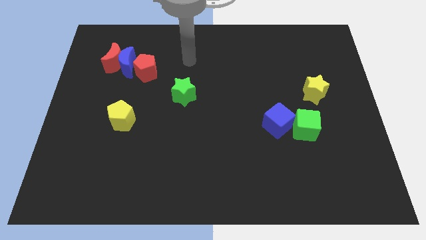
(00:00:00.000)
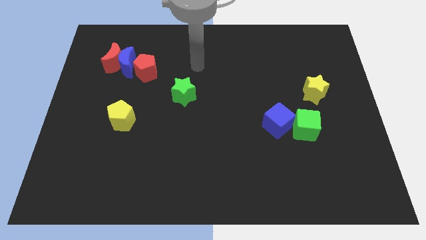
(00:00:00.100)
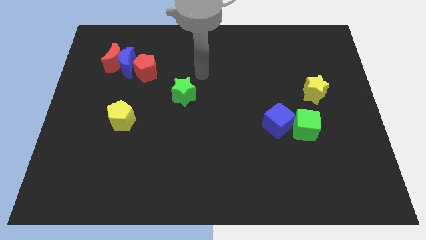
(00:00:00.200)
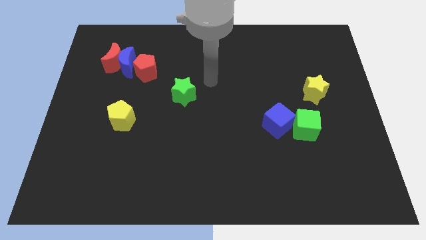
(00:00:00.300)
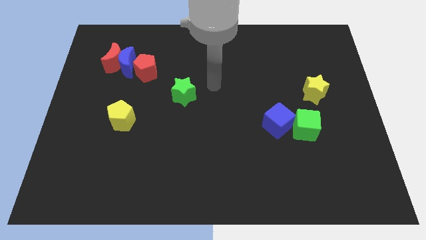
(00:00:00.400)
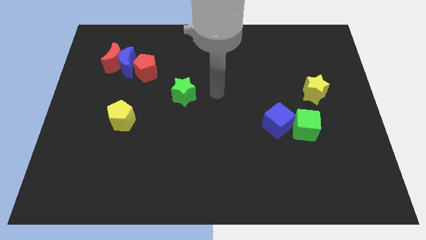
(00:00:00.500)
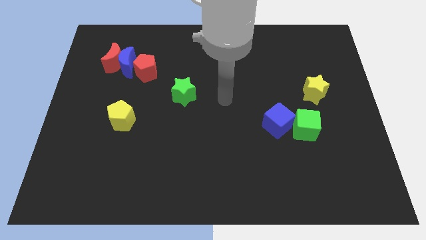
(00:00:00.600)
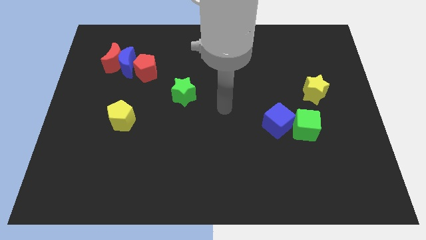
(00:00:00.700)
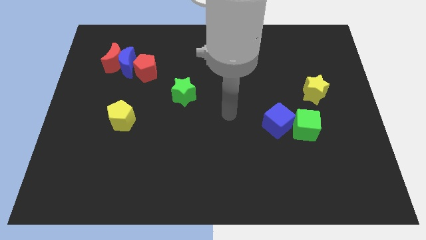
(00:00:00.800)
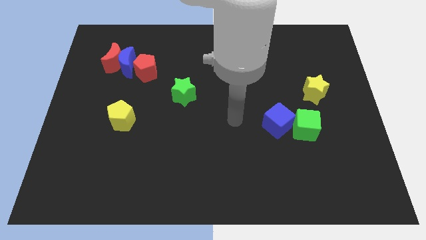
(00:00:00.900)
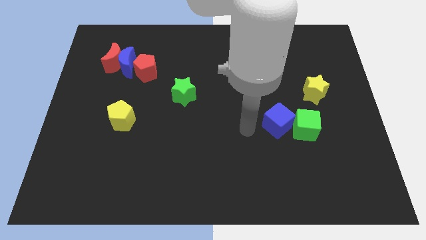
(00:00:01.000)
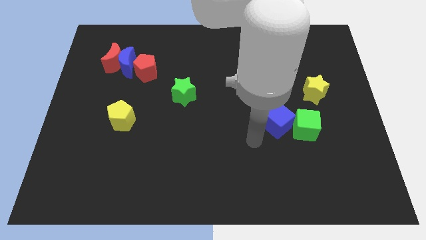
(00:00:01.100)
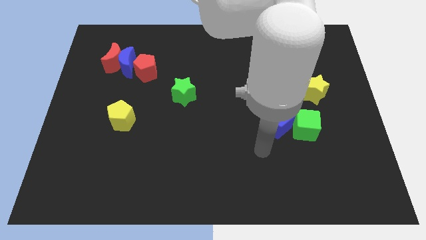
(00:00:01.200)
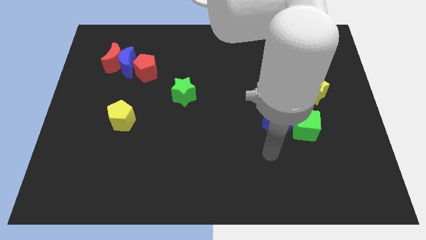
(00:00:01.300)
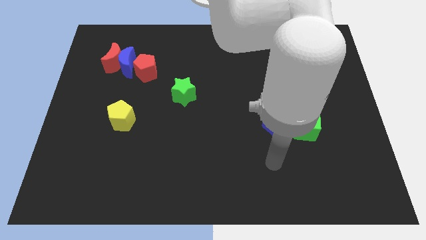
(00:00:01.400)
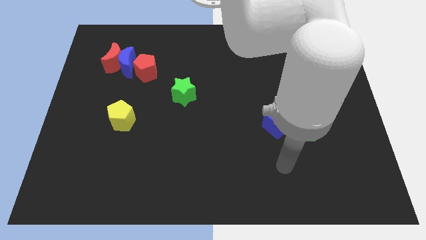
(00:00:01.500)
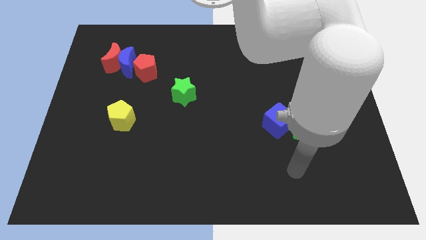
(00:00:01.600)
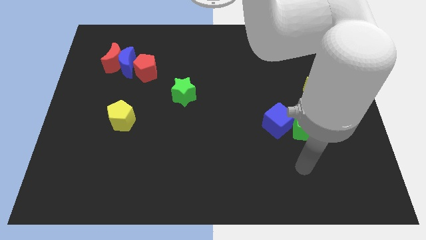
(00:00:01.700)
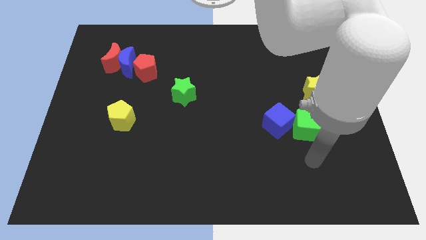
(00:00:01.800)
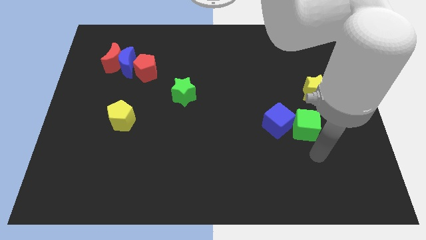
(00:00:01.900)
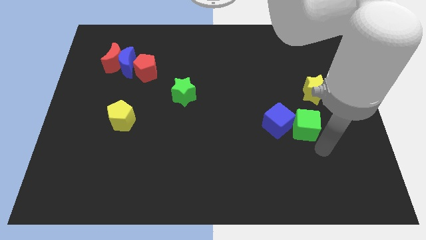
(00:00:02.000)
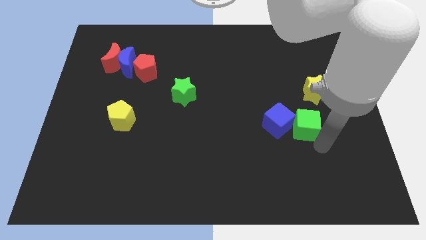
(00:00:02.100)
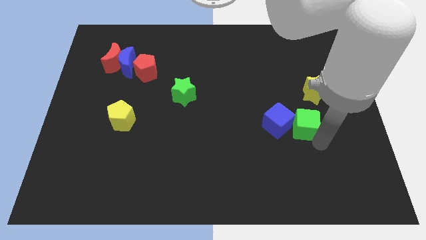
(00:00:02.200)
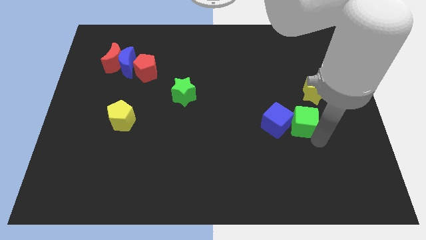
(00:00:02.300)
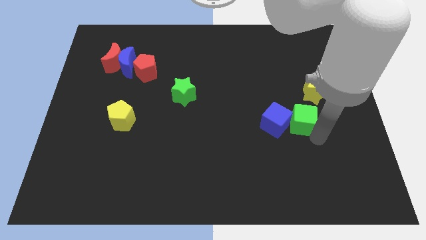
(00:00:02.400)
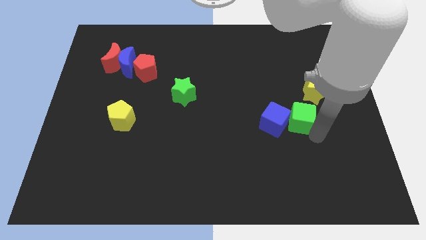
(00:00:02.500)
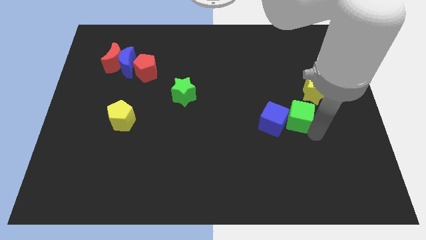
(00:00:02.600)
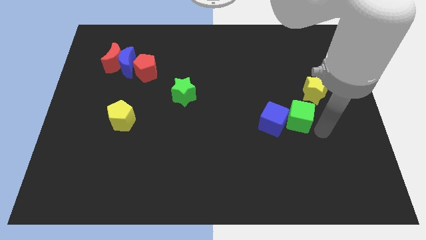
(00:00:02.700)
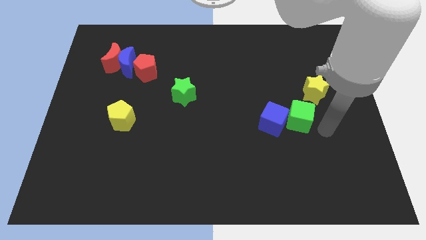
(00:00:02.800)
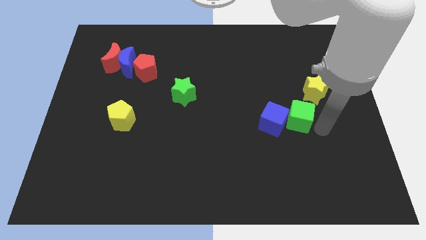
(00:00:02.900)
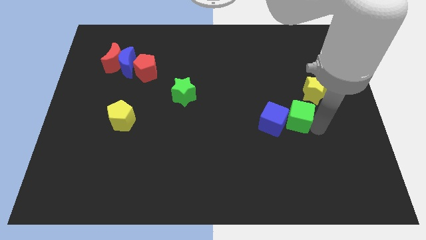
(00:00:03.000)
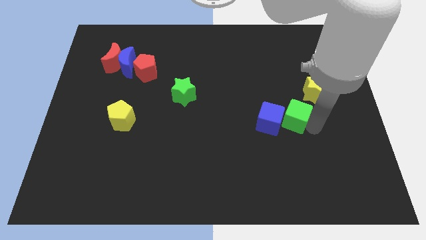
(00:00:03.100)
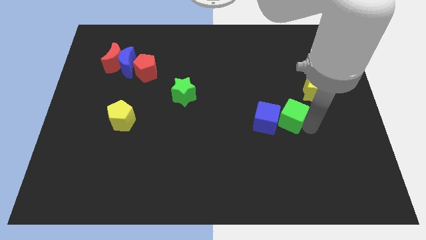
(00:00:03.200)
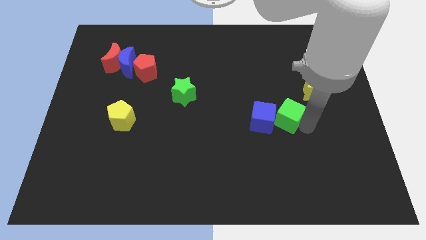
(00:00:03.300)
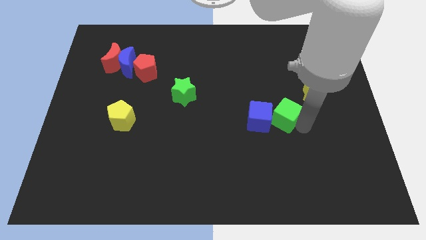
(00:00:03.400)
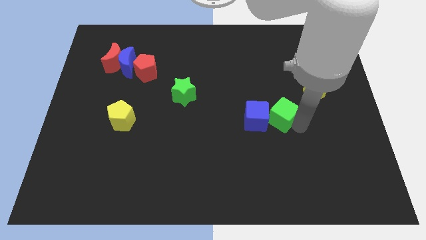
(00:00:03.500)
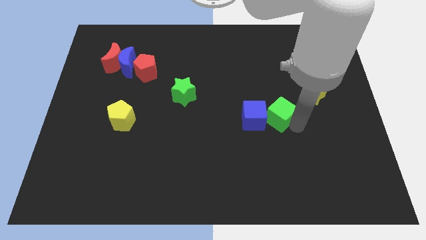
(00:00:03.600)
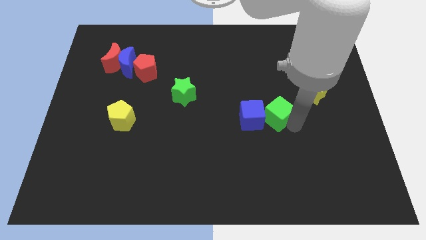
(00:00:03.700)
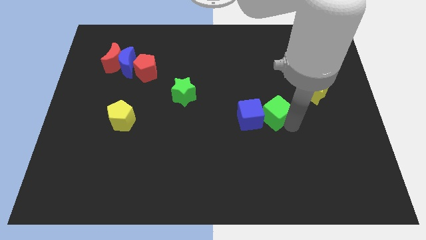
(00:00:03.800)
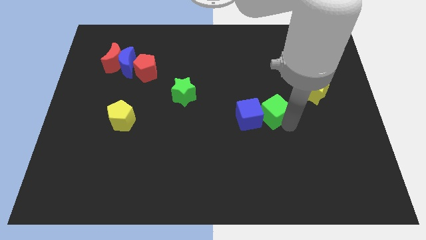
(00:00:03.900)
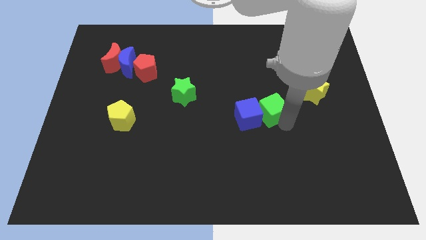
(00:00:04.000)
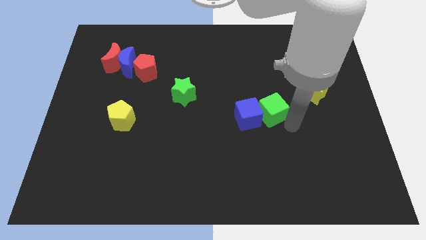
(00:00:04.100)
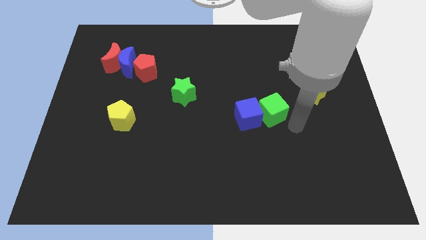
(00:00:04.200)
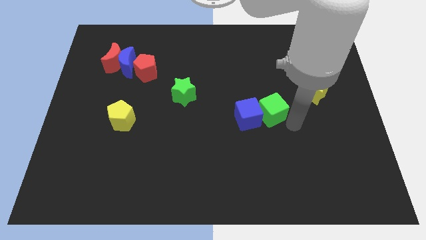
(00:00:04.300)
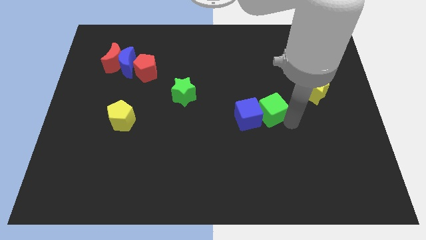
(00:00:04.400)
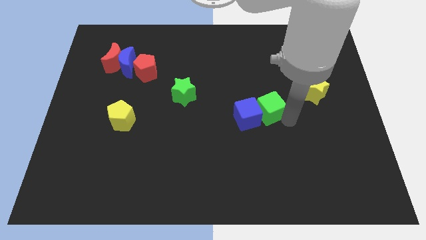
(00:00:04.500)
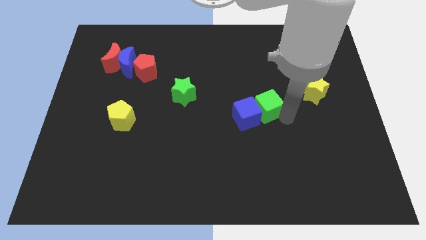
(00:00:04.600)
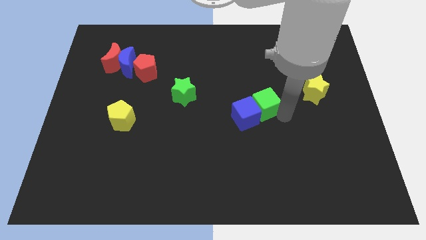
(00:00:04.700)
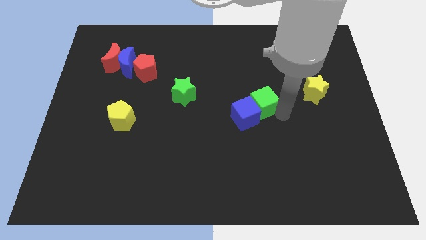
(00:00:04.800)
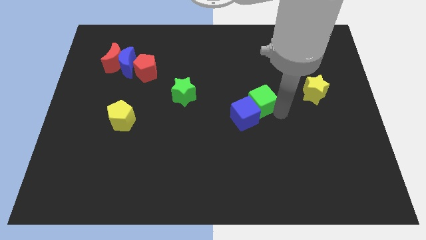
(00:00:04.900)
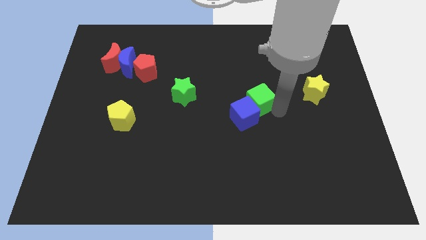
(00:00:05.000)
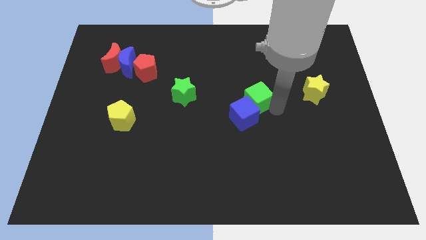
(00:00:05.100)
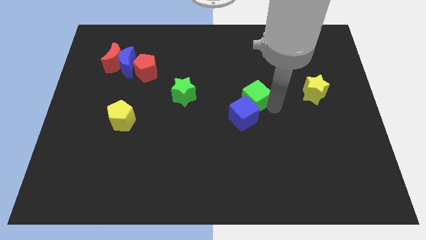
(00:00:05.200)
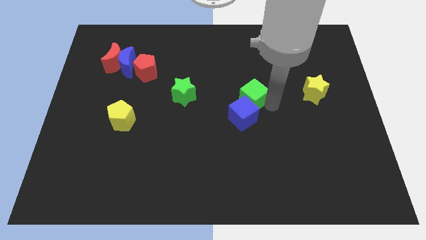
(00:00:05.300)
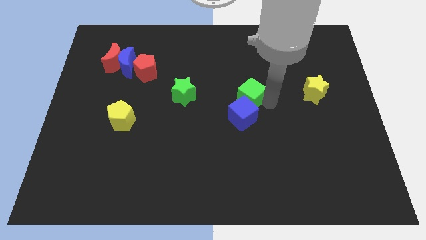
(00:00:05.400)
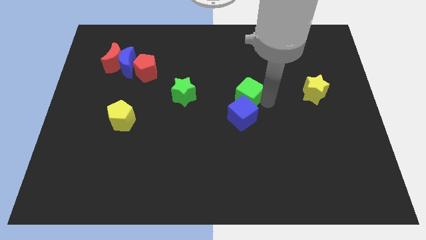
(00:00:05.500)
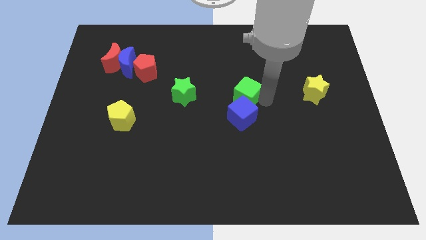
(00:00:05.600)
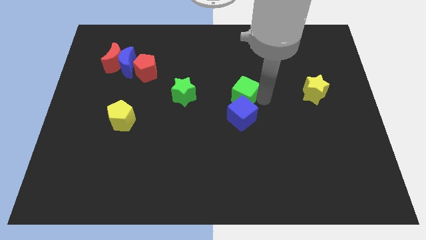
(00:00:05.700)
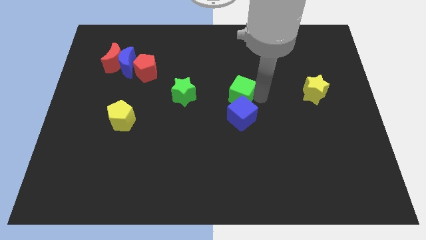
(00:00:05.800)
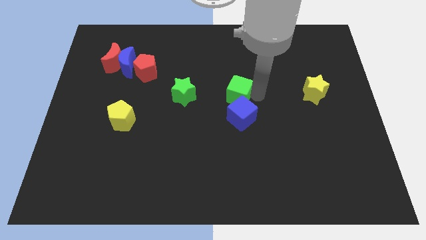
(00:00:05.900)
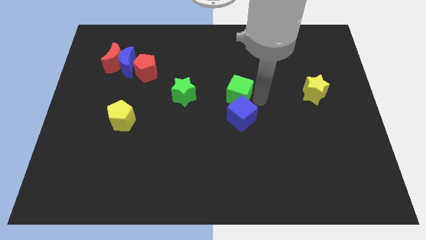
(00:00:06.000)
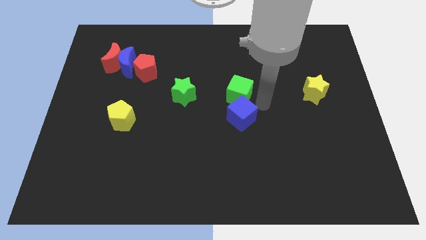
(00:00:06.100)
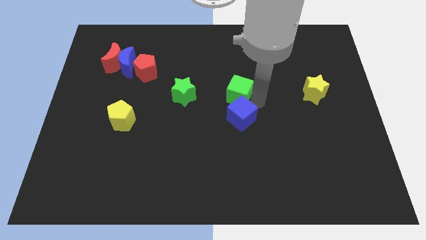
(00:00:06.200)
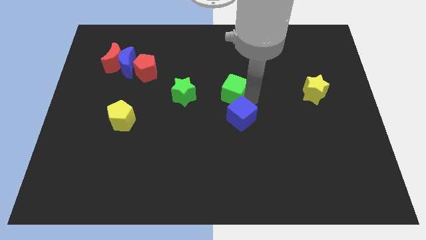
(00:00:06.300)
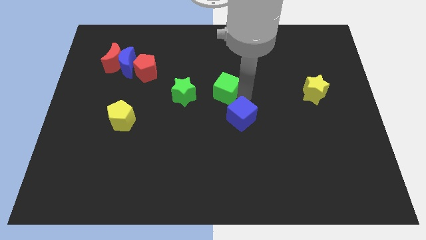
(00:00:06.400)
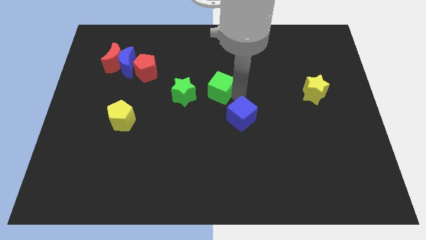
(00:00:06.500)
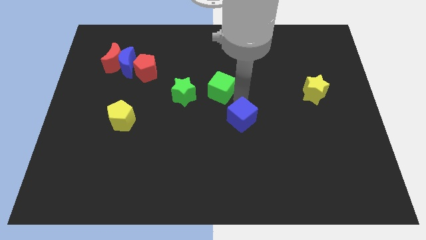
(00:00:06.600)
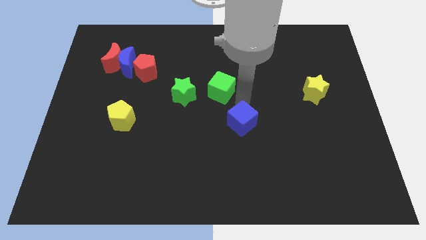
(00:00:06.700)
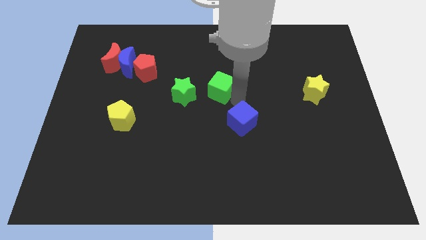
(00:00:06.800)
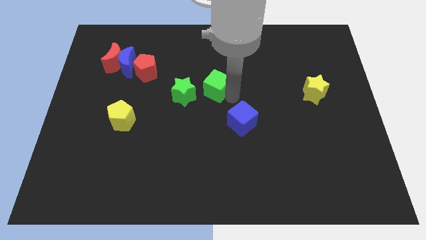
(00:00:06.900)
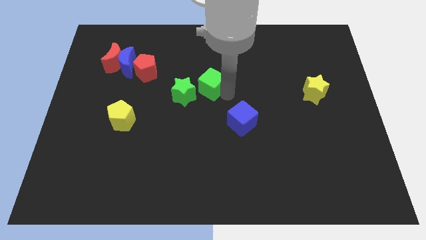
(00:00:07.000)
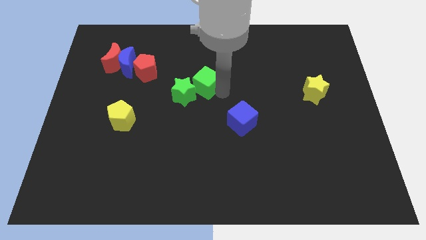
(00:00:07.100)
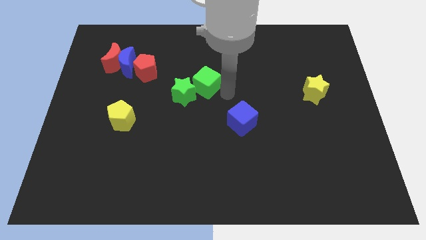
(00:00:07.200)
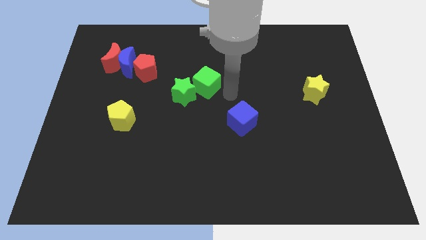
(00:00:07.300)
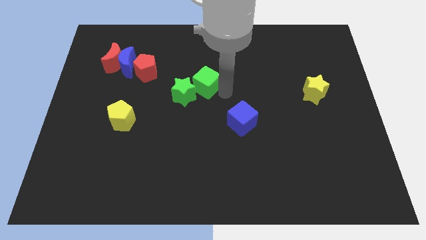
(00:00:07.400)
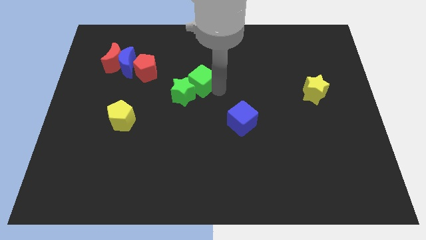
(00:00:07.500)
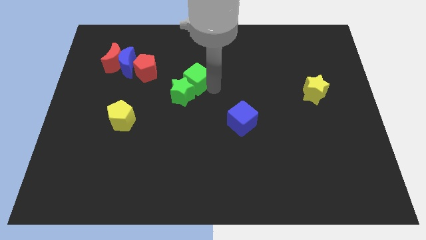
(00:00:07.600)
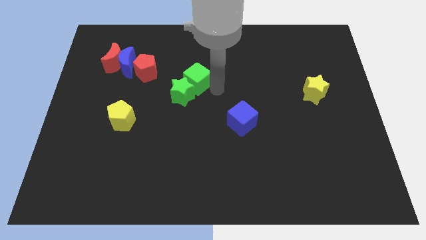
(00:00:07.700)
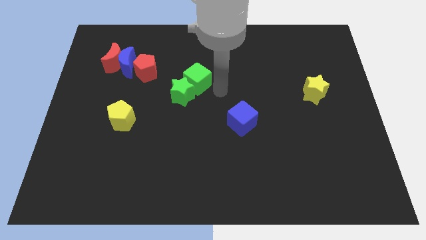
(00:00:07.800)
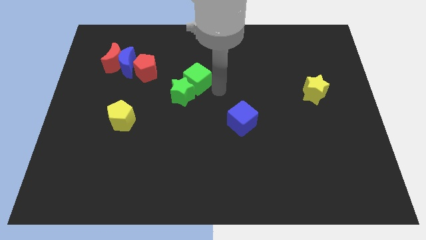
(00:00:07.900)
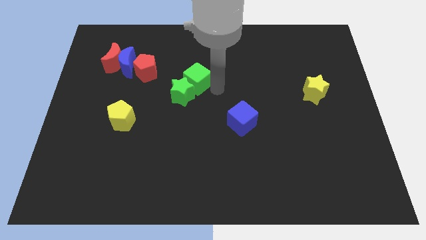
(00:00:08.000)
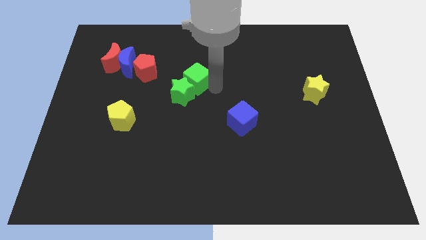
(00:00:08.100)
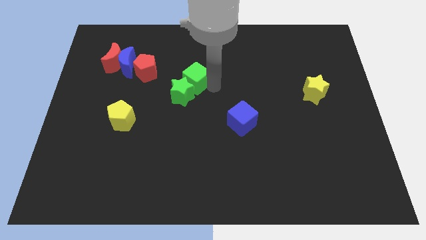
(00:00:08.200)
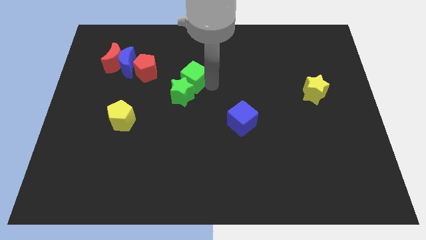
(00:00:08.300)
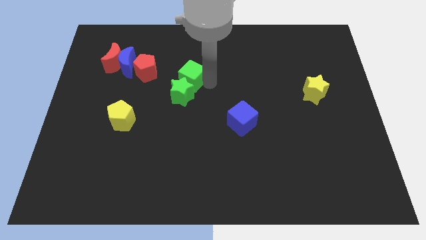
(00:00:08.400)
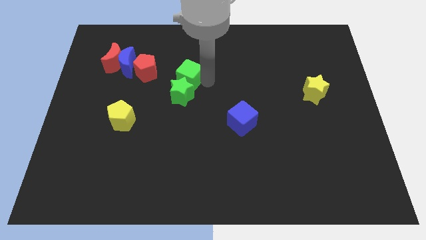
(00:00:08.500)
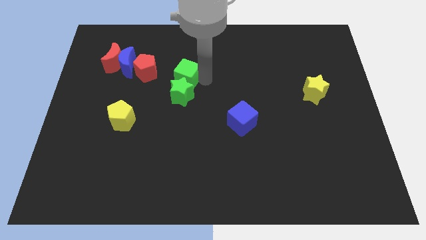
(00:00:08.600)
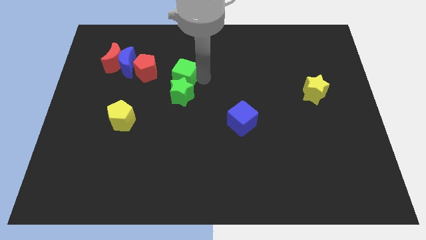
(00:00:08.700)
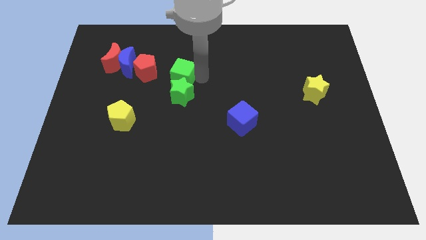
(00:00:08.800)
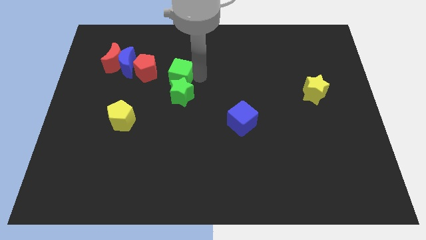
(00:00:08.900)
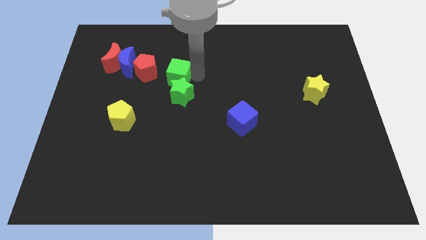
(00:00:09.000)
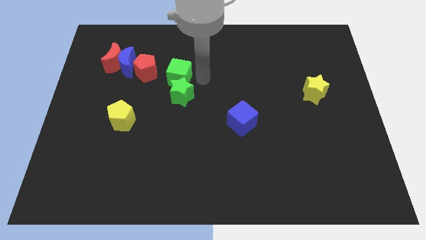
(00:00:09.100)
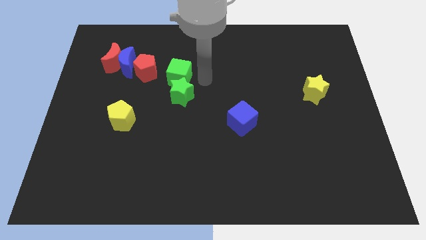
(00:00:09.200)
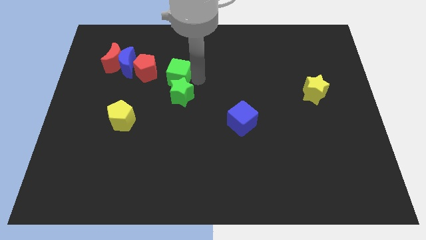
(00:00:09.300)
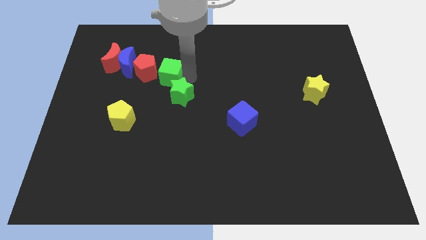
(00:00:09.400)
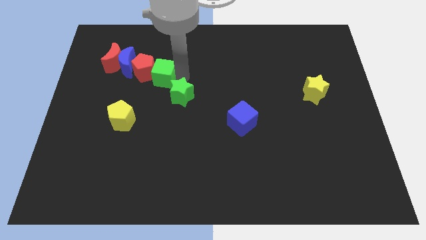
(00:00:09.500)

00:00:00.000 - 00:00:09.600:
slide the green cube towards the red pentagon
